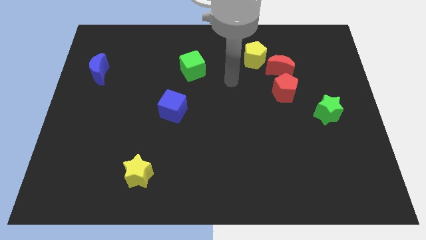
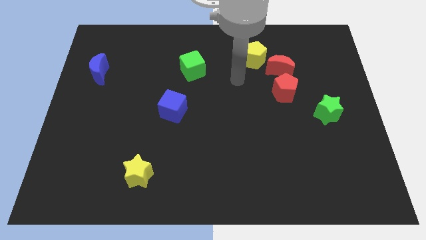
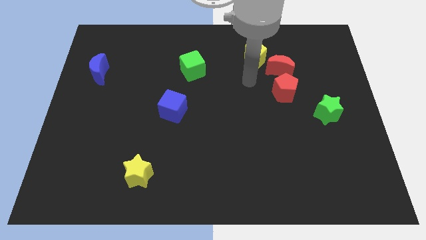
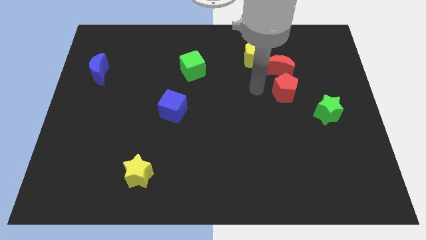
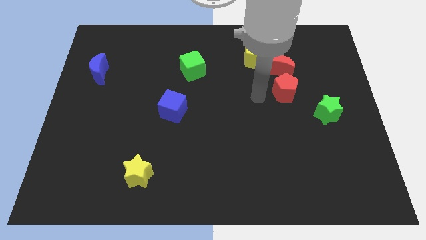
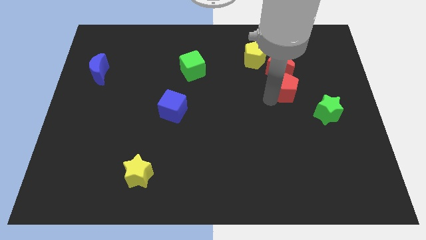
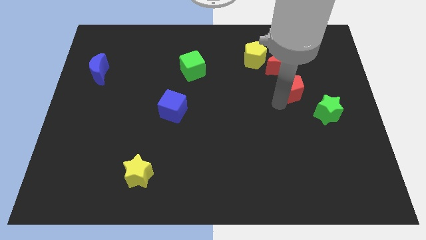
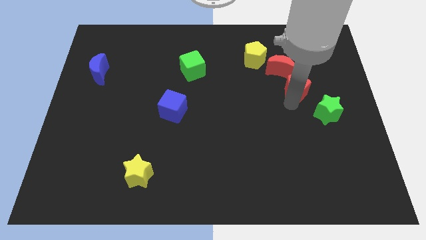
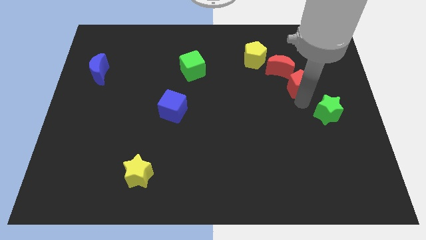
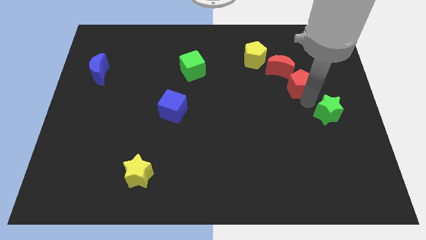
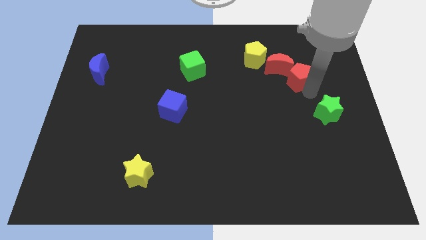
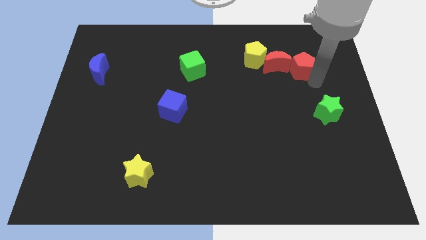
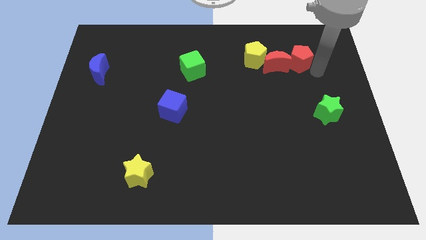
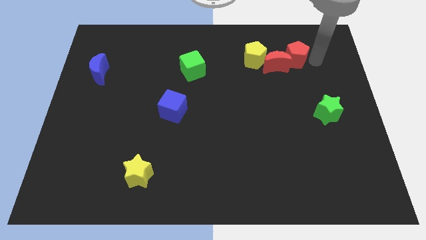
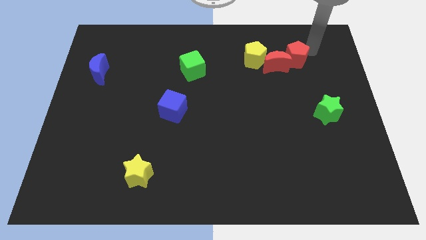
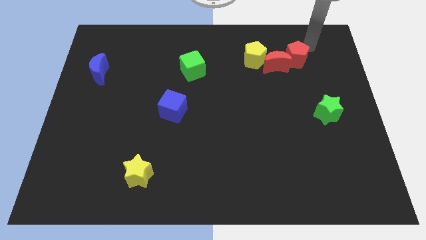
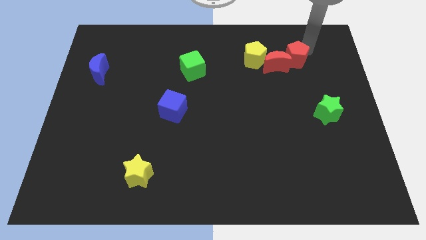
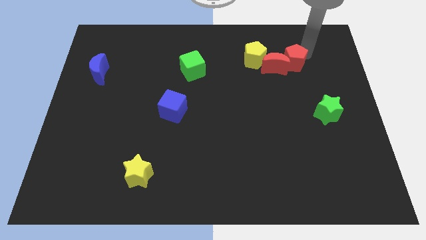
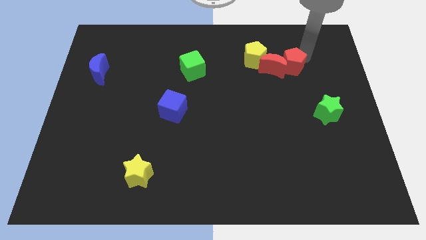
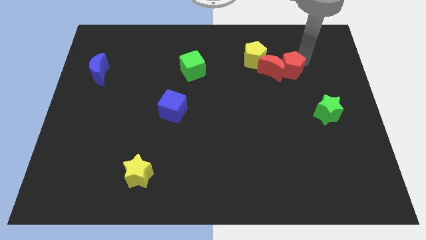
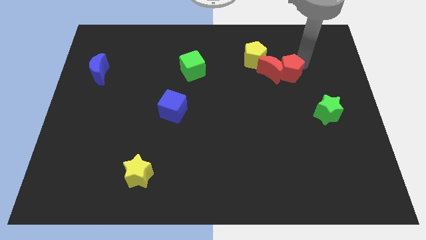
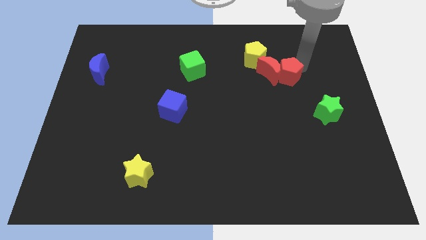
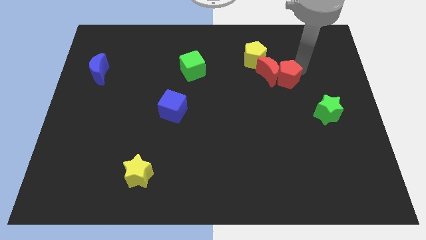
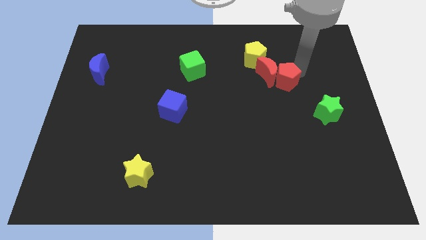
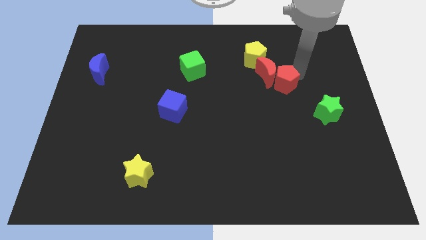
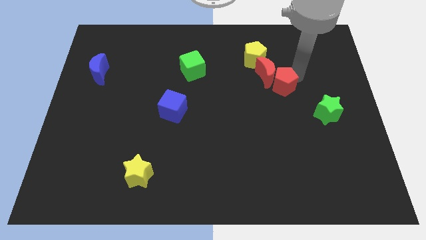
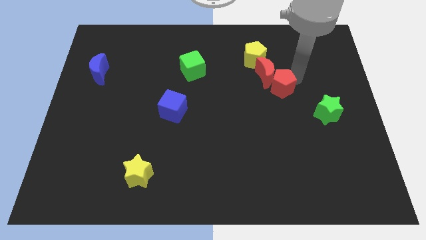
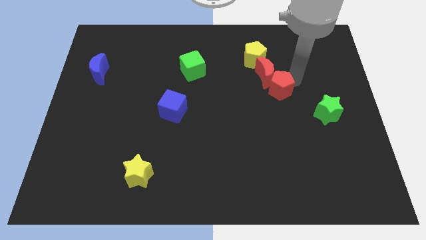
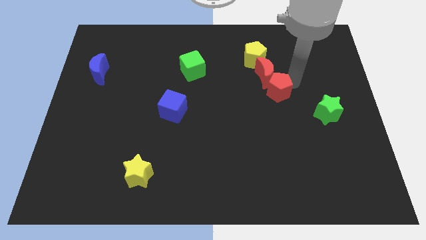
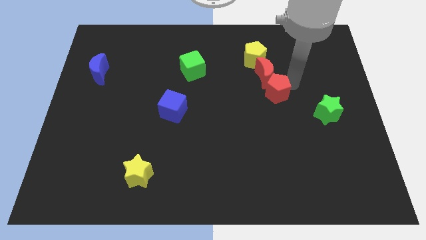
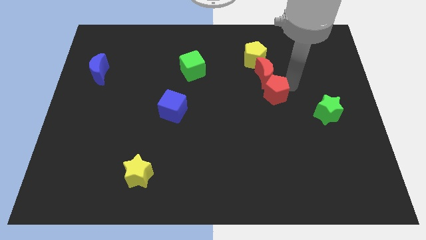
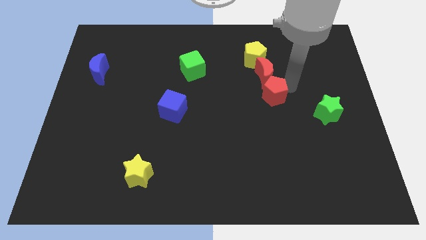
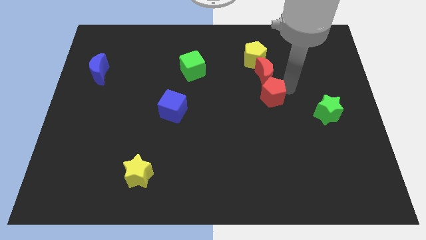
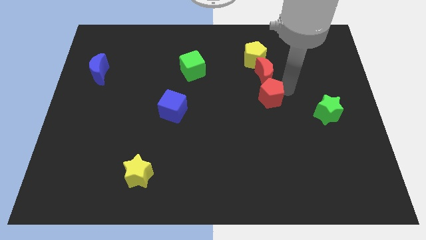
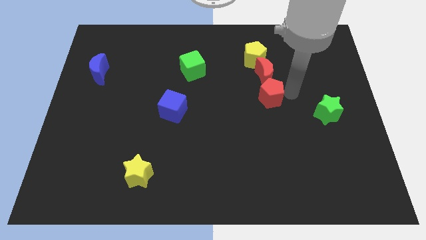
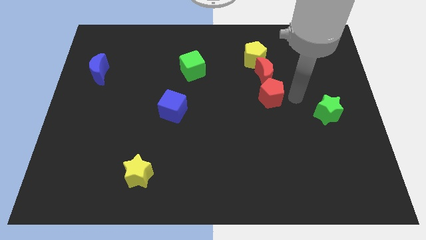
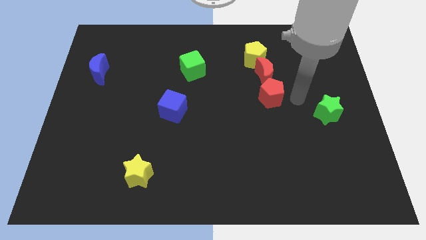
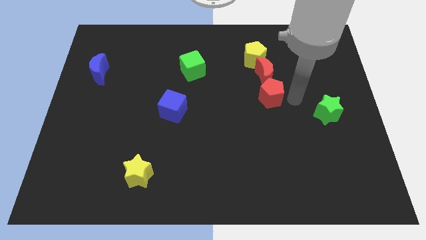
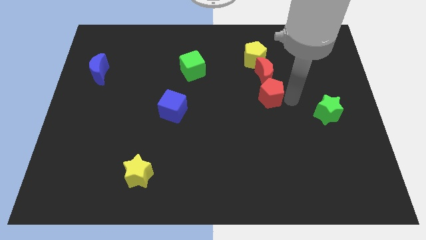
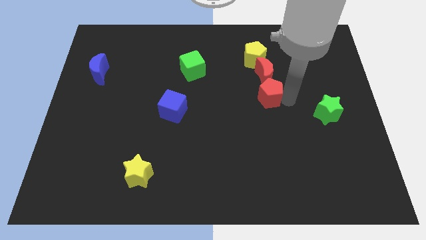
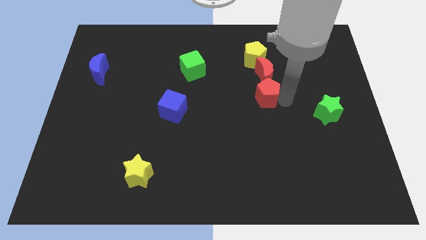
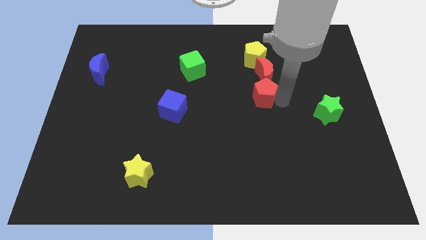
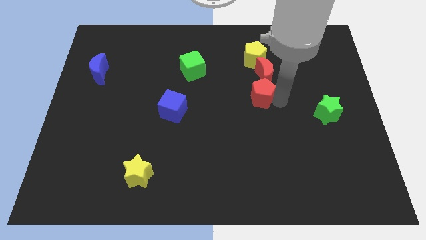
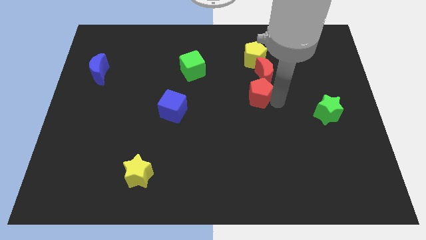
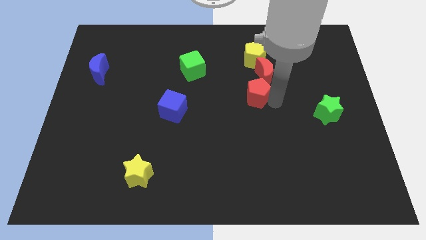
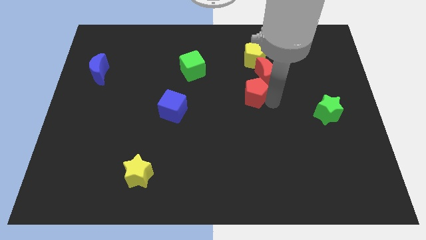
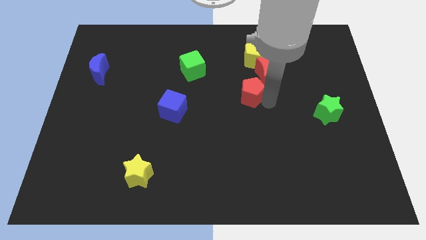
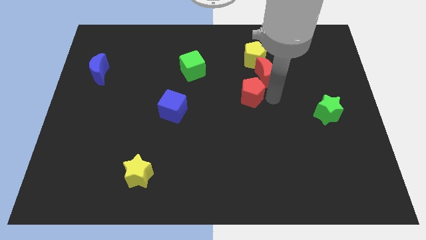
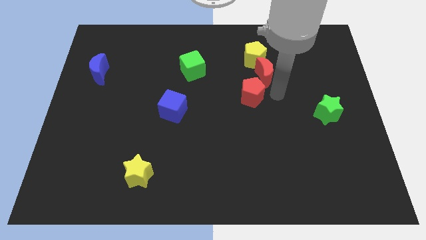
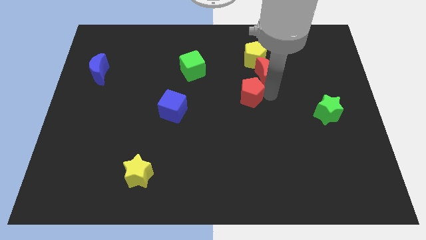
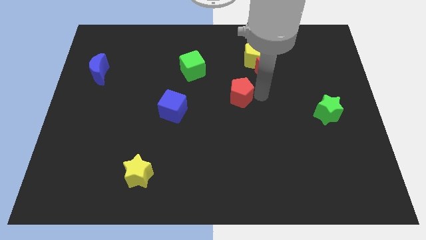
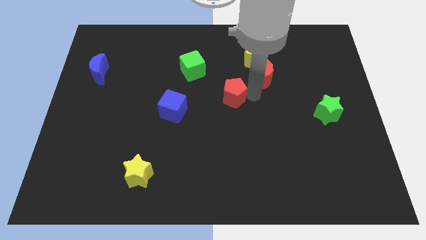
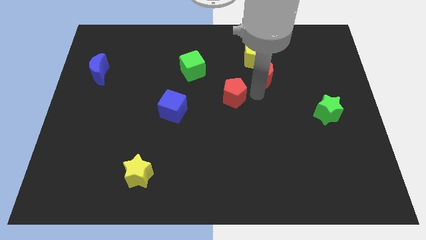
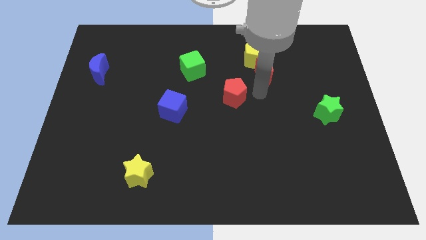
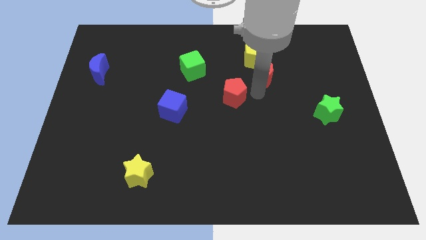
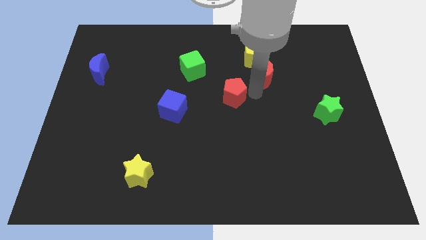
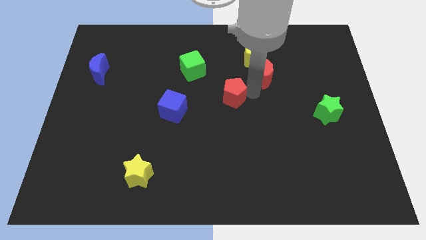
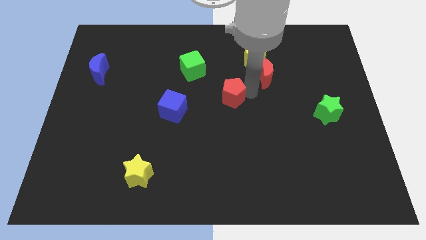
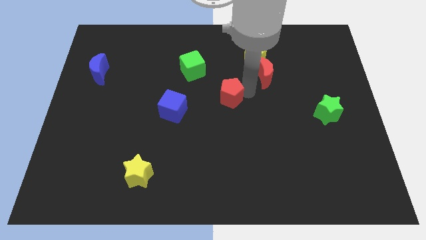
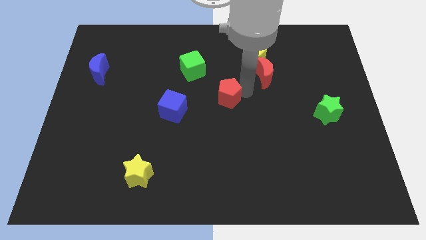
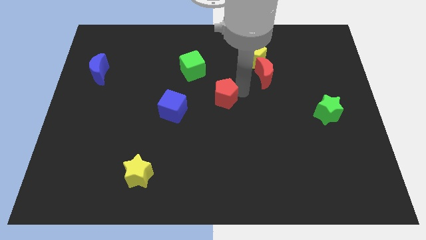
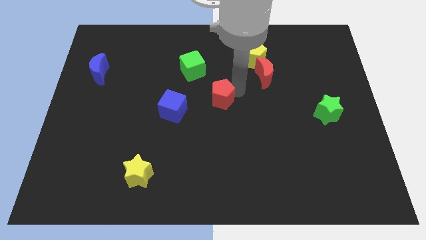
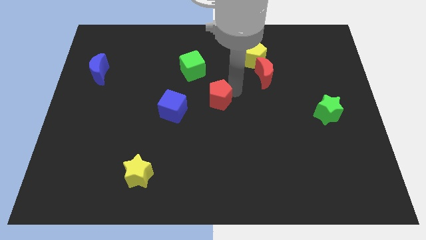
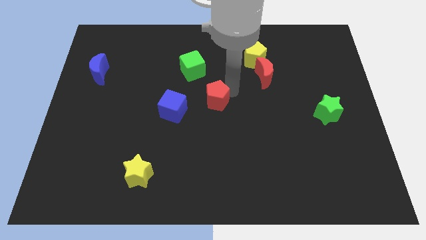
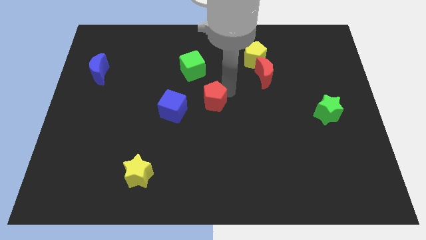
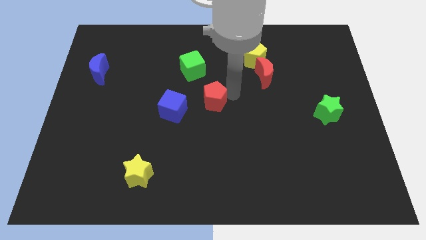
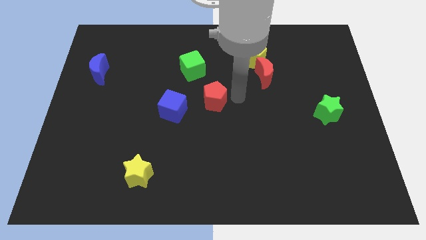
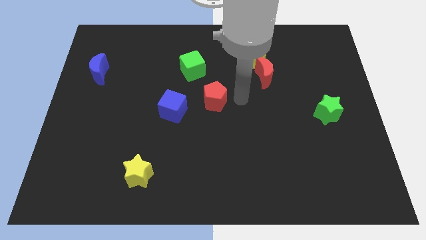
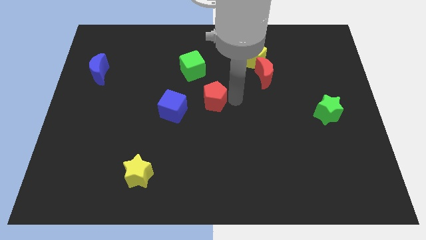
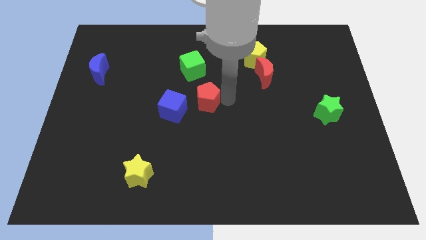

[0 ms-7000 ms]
push the red pentagon to the bottom of the green cube
